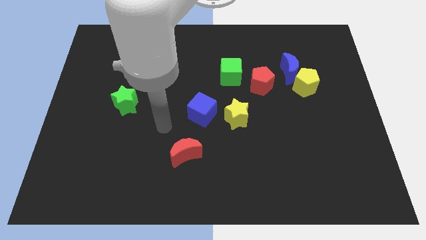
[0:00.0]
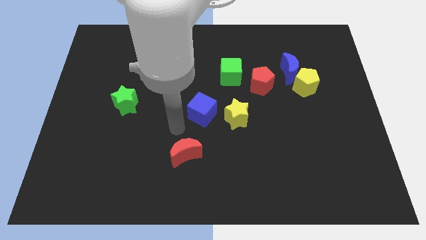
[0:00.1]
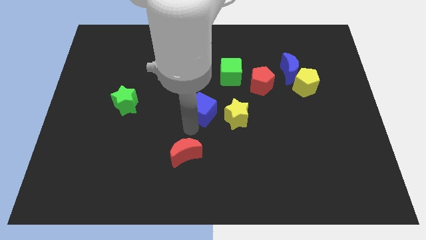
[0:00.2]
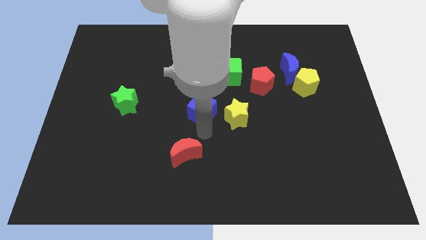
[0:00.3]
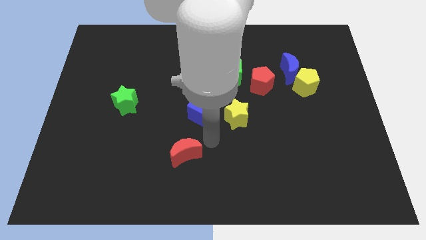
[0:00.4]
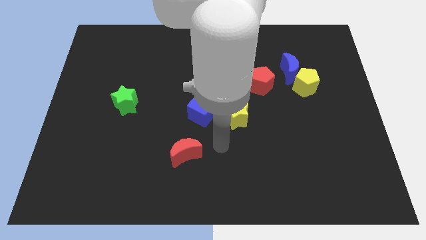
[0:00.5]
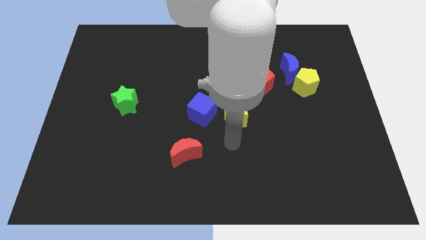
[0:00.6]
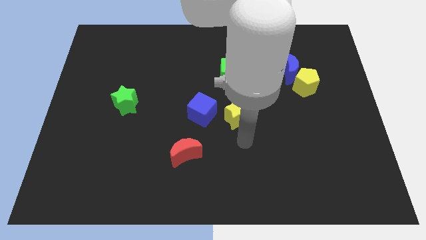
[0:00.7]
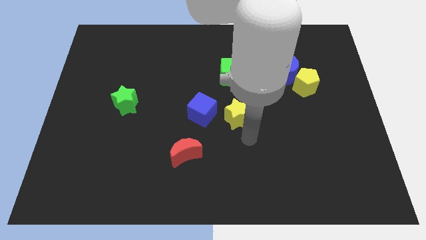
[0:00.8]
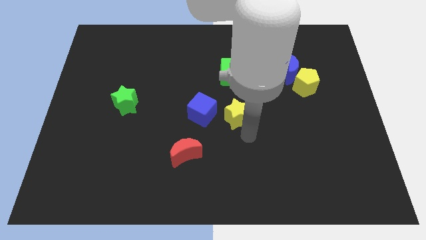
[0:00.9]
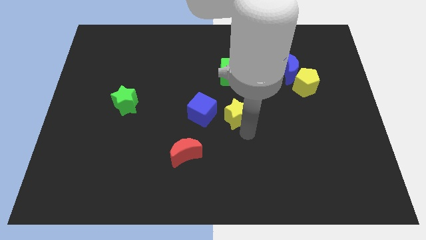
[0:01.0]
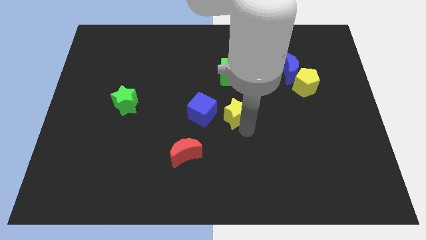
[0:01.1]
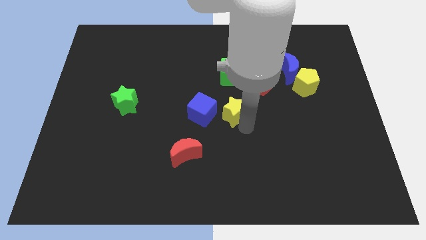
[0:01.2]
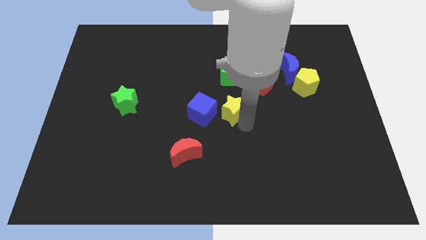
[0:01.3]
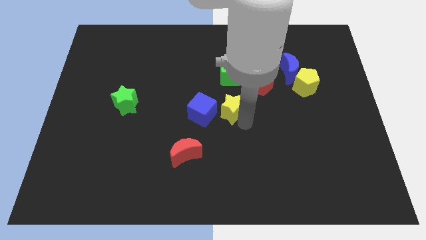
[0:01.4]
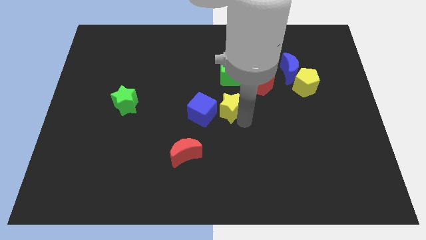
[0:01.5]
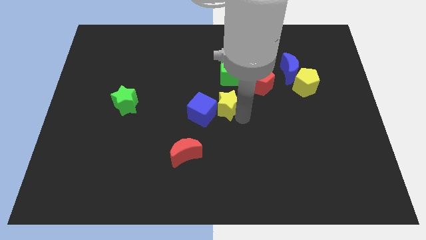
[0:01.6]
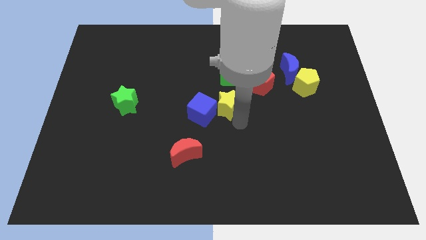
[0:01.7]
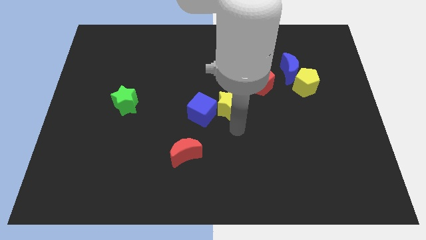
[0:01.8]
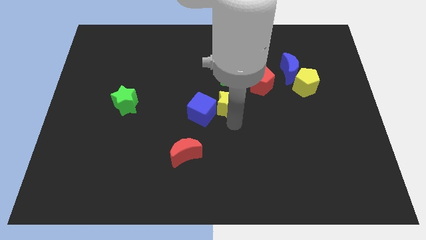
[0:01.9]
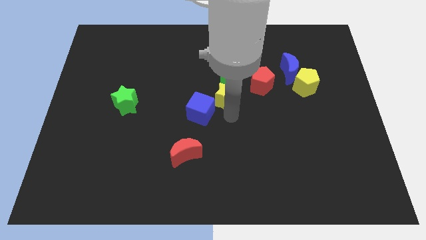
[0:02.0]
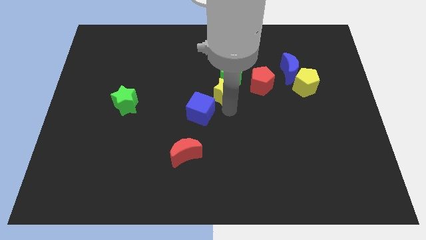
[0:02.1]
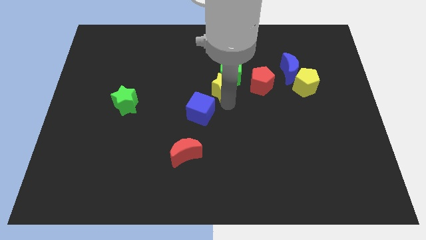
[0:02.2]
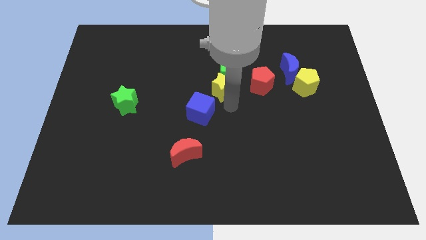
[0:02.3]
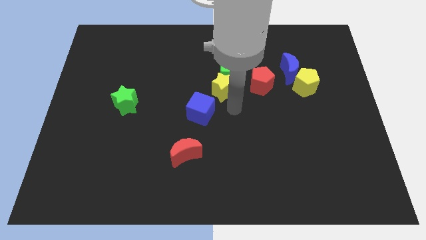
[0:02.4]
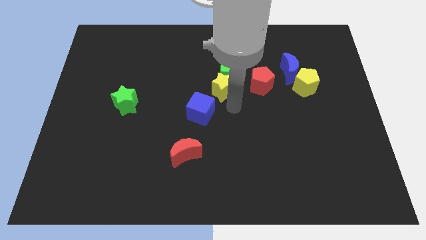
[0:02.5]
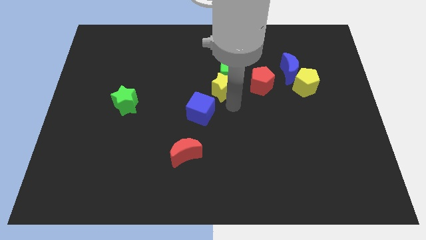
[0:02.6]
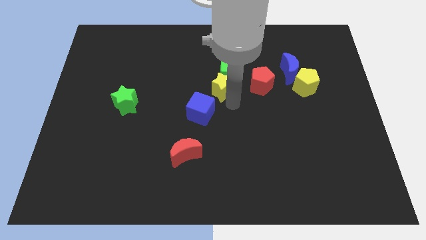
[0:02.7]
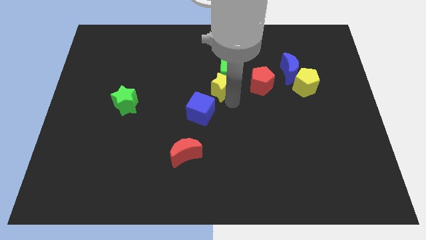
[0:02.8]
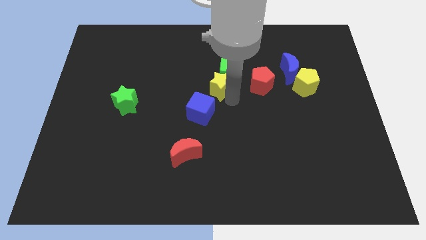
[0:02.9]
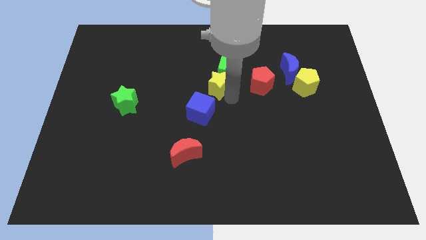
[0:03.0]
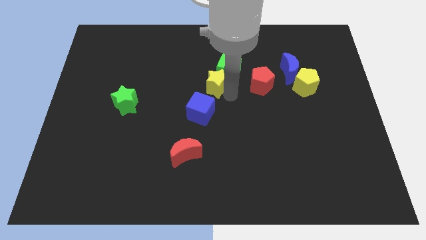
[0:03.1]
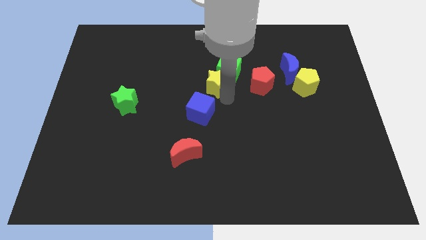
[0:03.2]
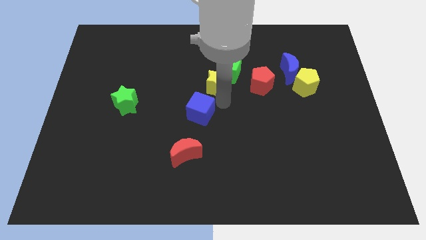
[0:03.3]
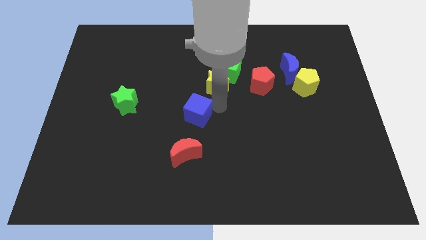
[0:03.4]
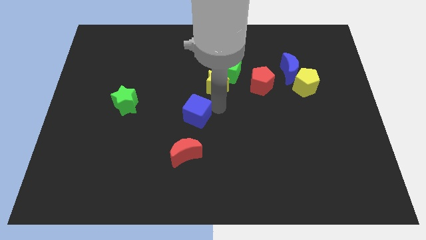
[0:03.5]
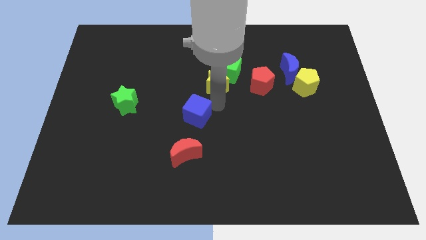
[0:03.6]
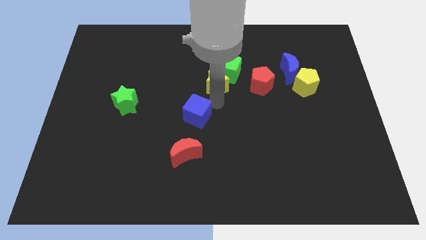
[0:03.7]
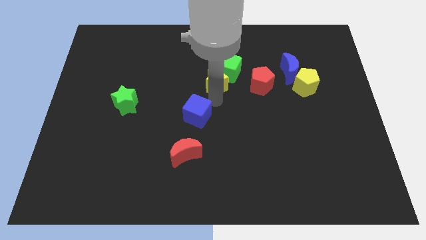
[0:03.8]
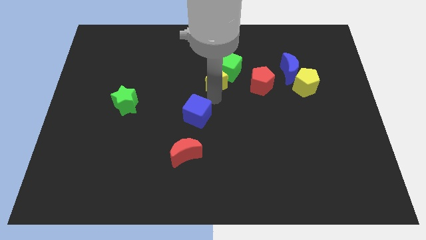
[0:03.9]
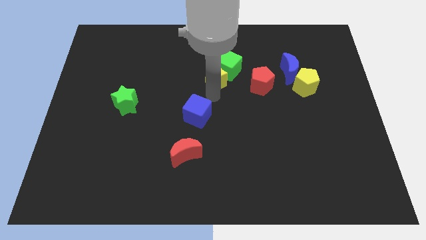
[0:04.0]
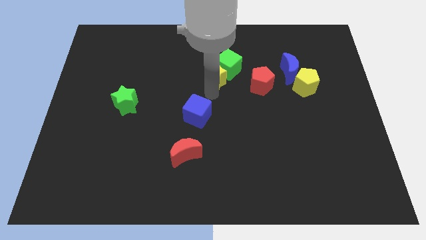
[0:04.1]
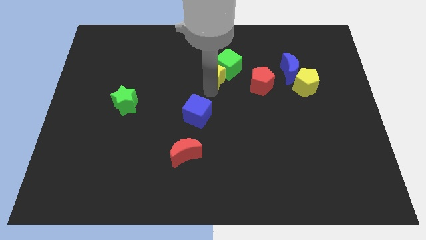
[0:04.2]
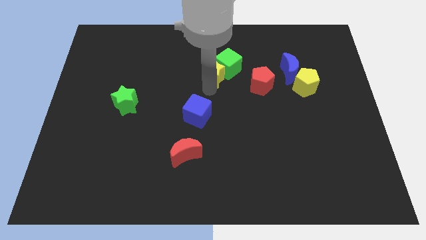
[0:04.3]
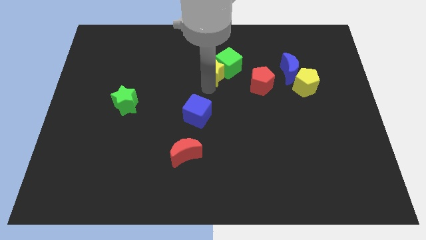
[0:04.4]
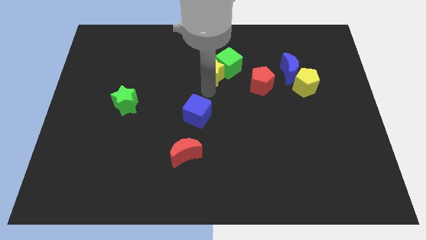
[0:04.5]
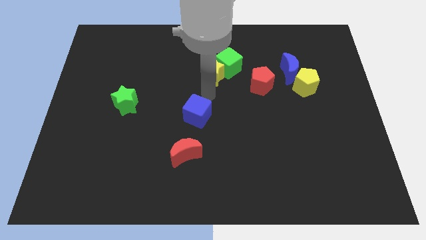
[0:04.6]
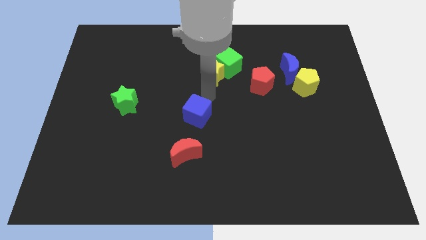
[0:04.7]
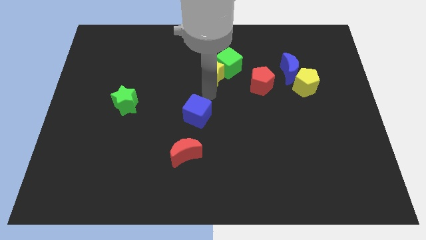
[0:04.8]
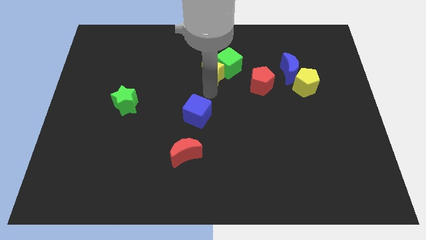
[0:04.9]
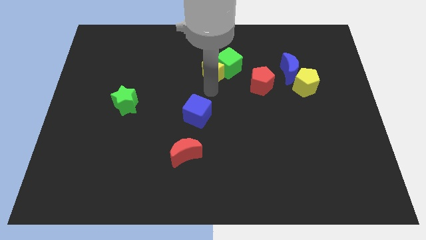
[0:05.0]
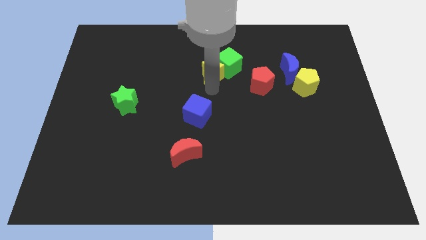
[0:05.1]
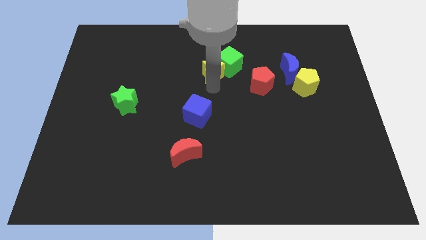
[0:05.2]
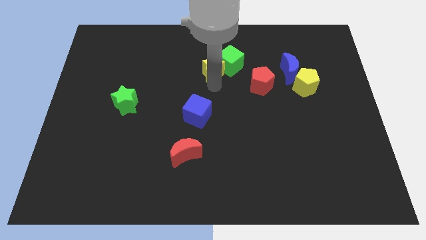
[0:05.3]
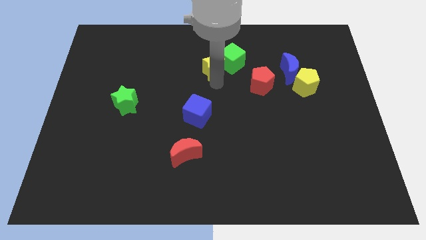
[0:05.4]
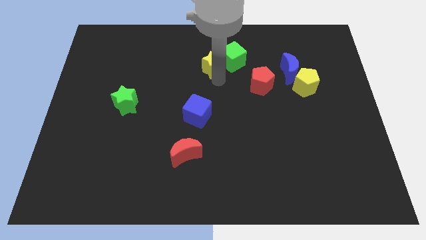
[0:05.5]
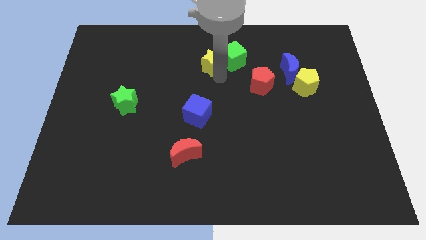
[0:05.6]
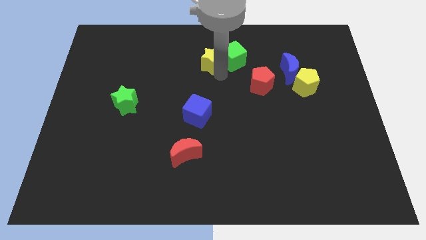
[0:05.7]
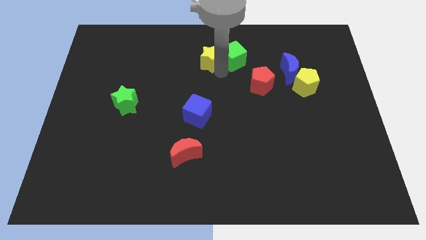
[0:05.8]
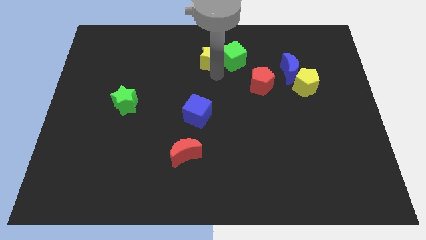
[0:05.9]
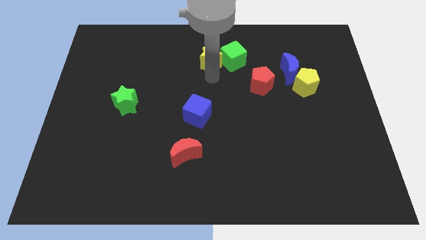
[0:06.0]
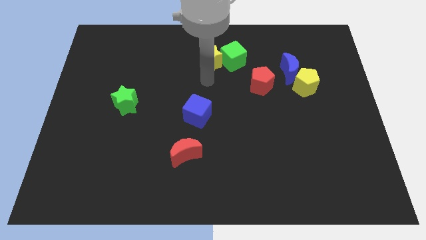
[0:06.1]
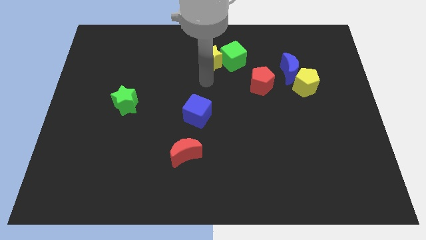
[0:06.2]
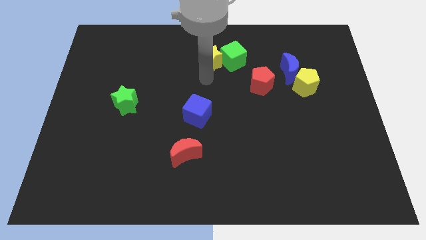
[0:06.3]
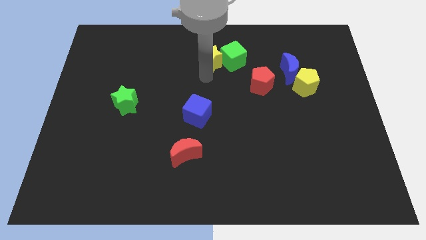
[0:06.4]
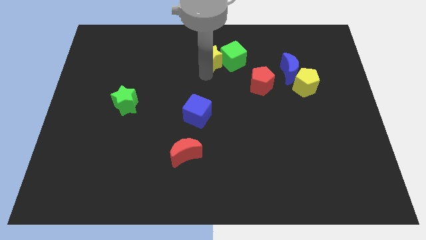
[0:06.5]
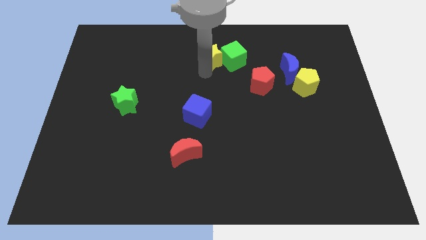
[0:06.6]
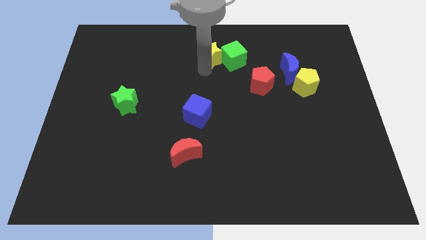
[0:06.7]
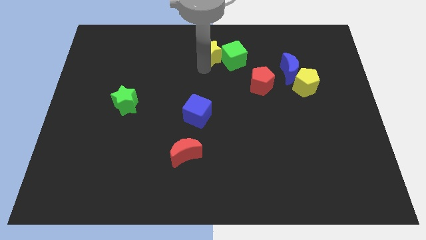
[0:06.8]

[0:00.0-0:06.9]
put the yellow star to the towards your base
